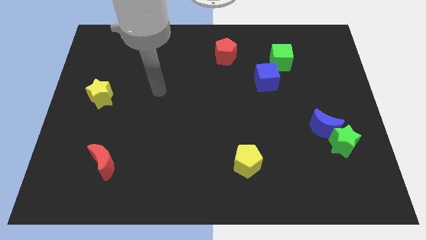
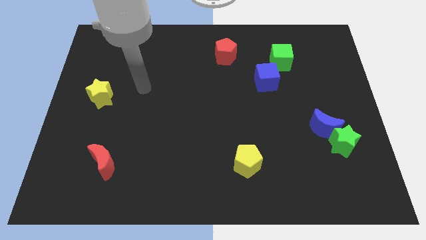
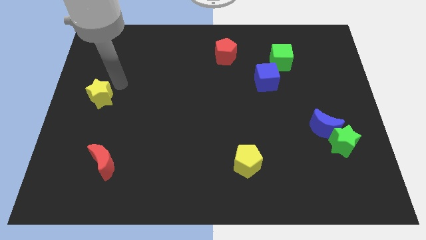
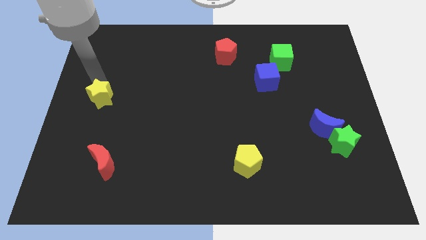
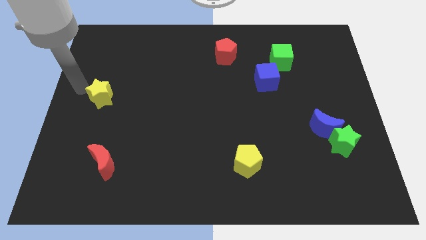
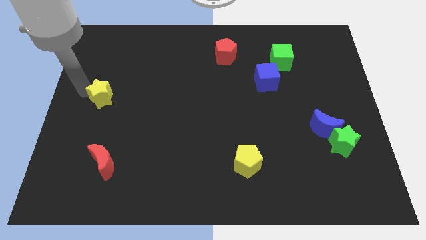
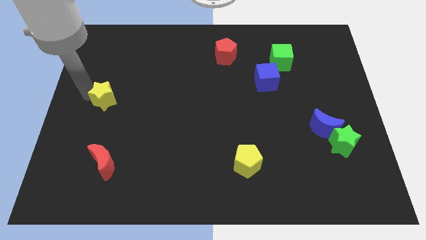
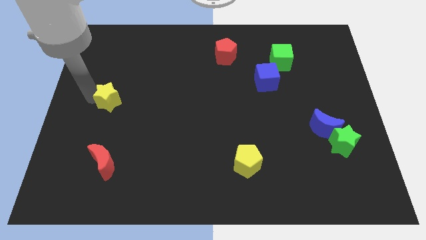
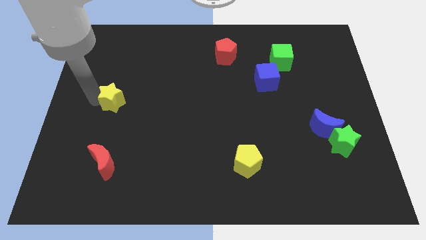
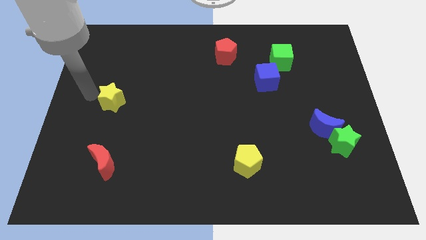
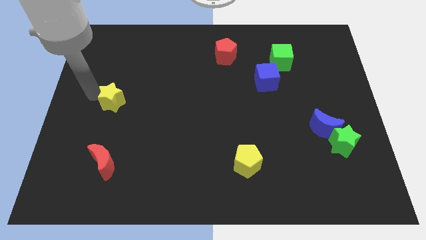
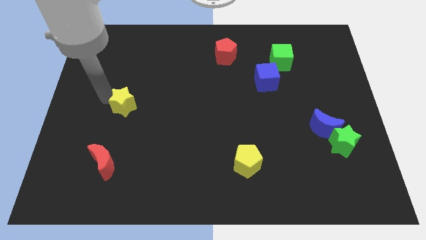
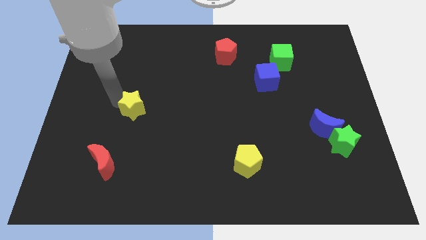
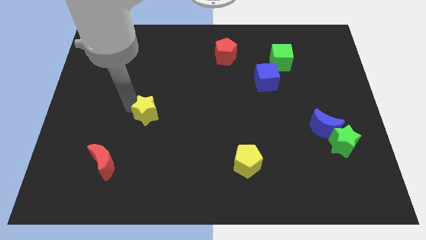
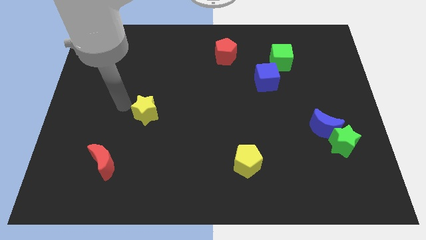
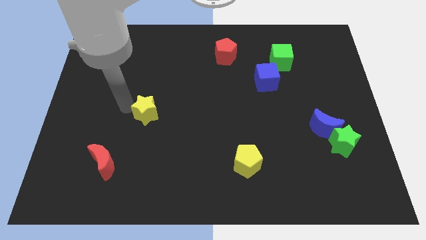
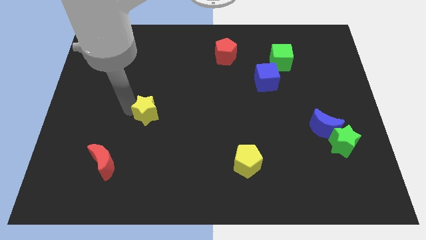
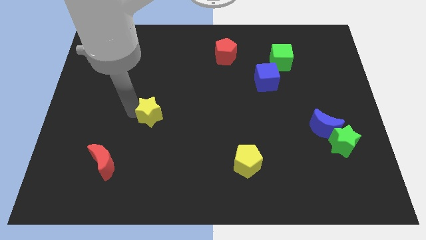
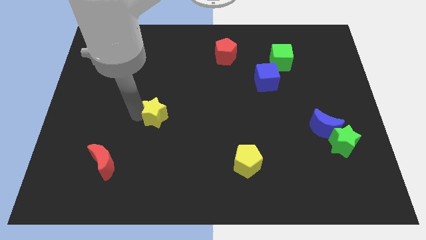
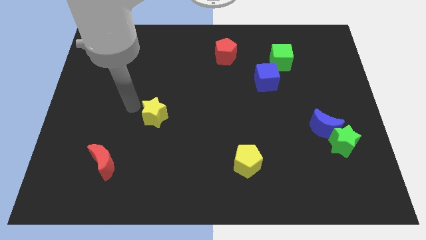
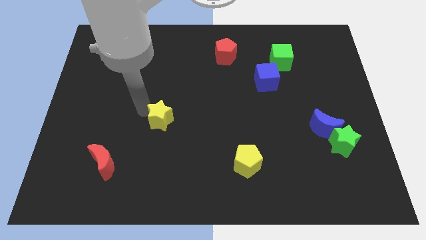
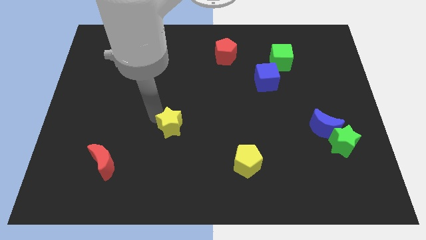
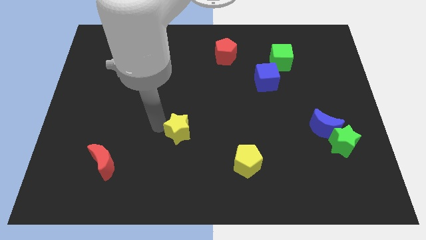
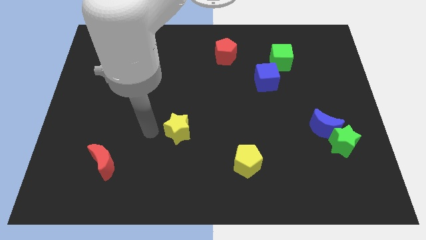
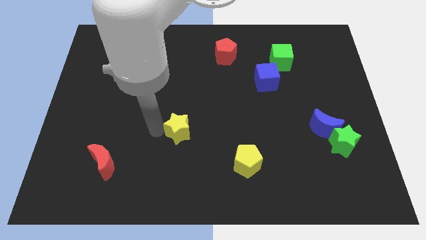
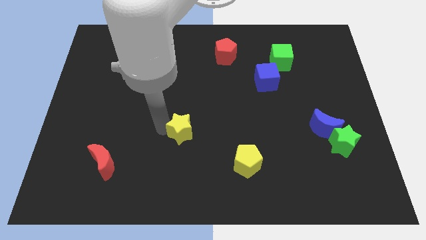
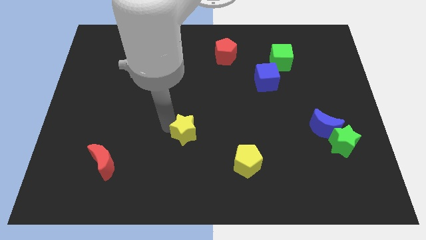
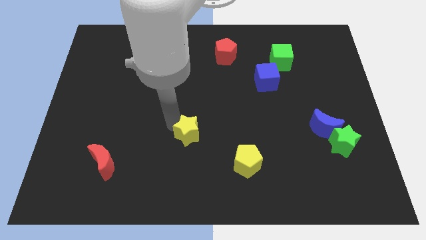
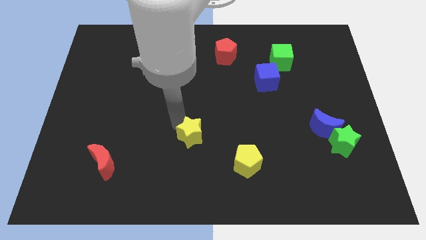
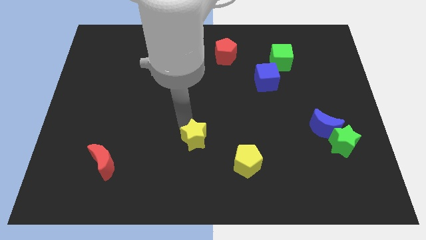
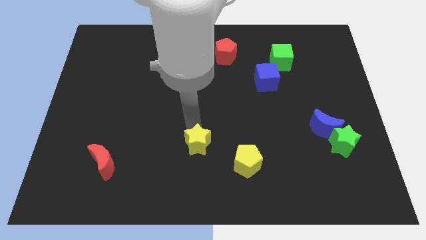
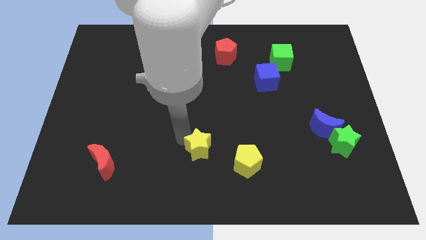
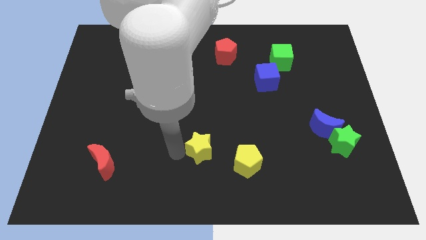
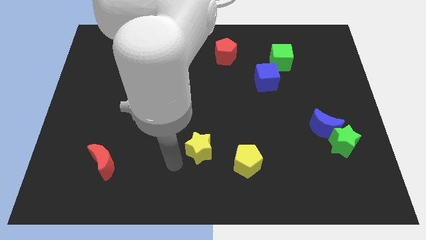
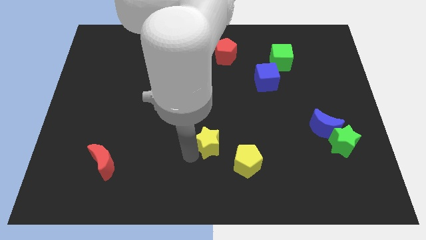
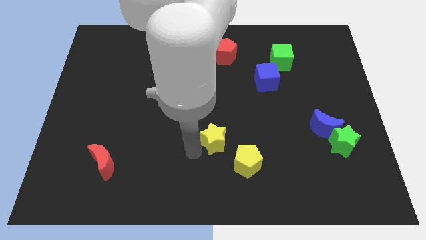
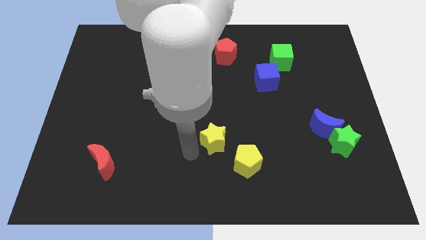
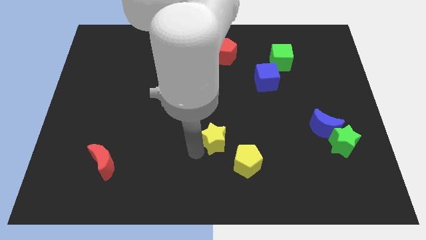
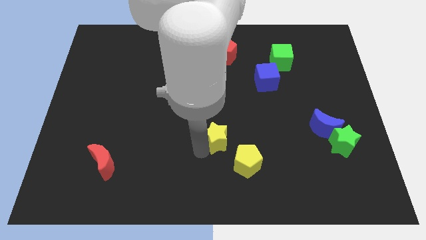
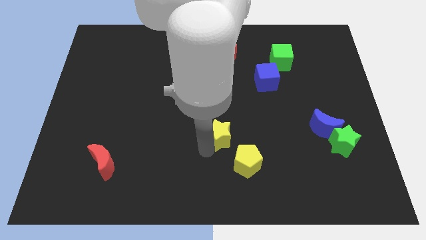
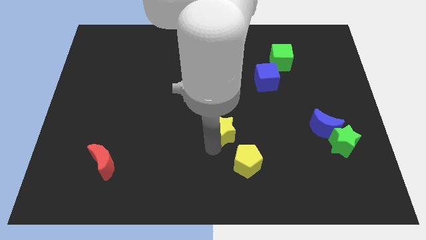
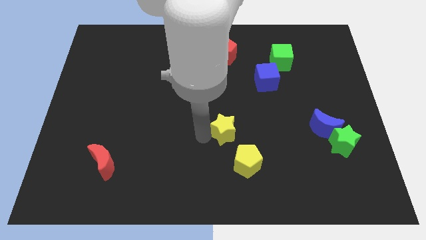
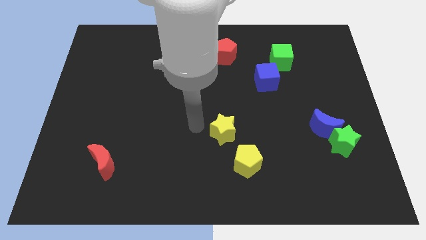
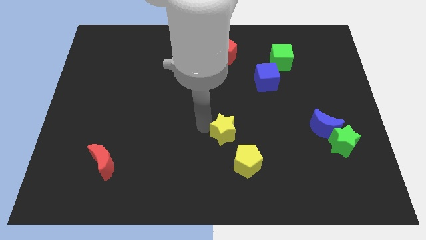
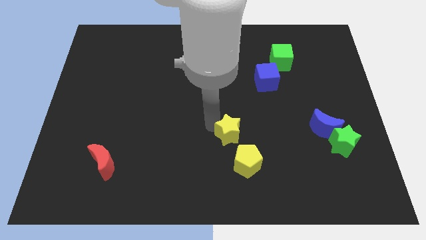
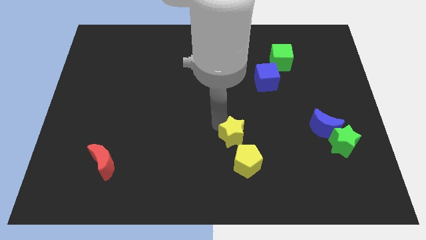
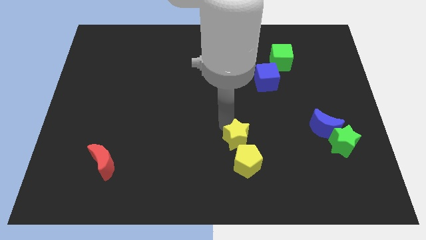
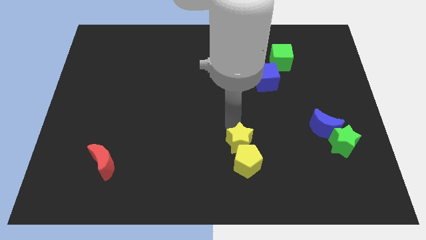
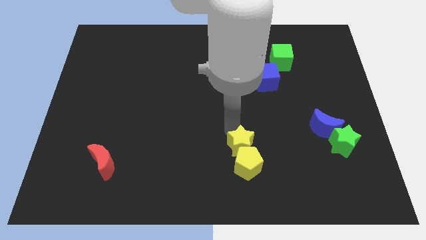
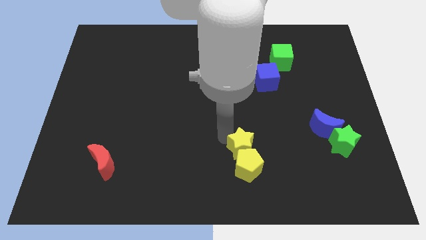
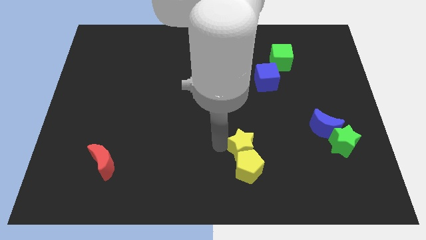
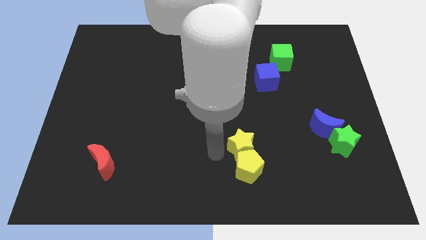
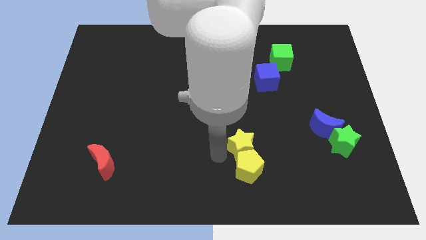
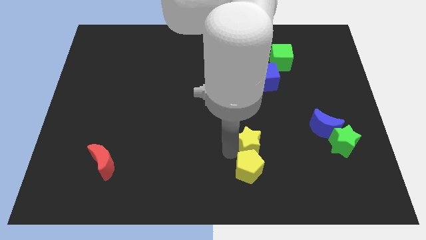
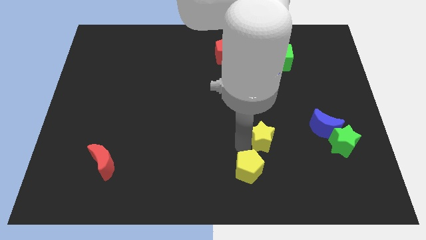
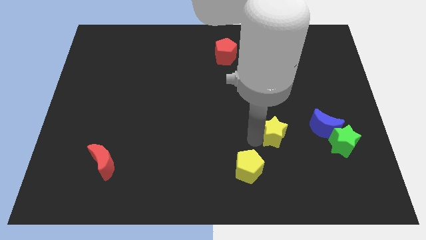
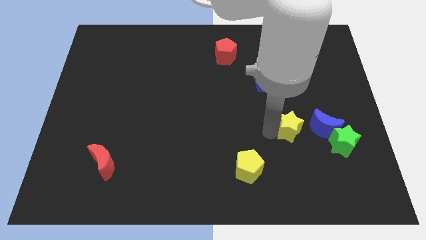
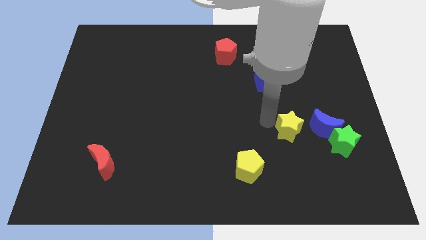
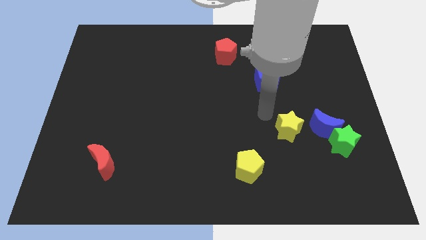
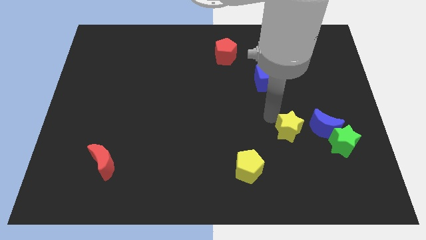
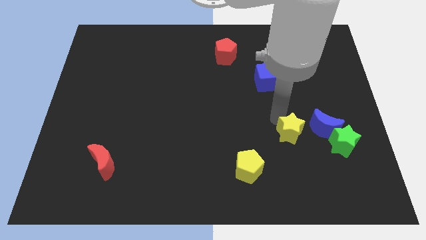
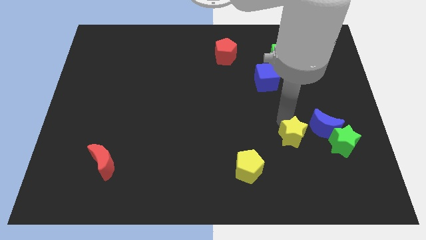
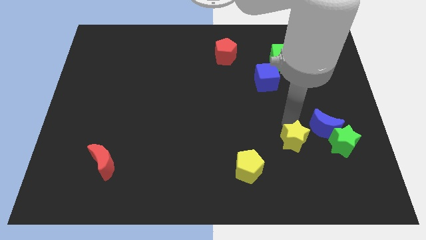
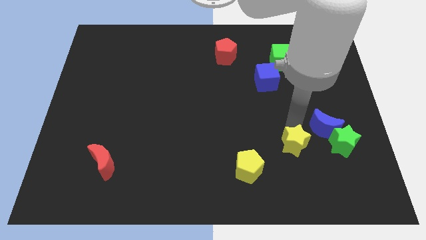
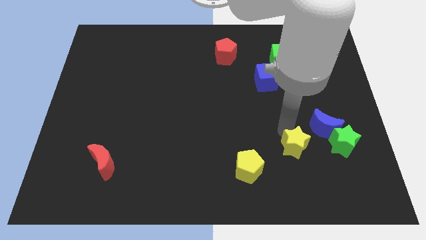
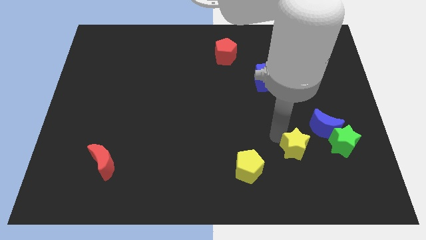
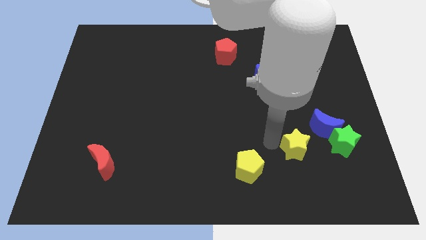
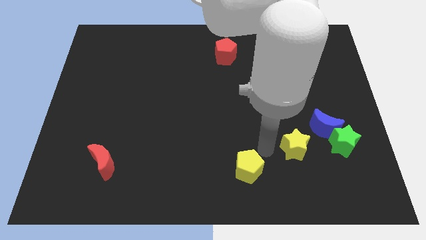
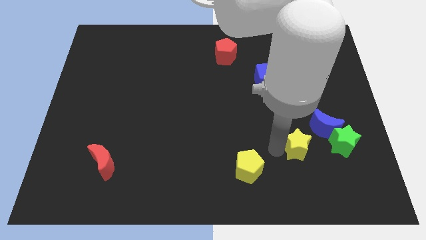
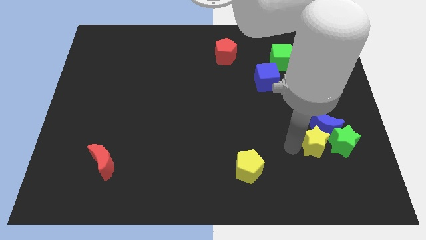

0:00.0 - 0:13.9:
put the yellow star to the green star
